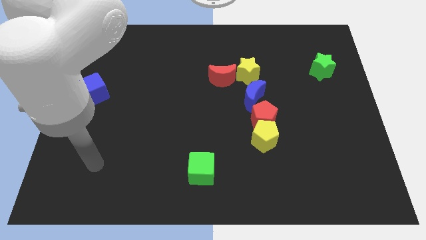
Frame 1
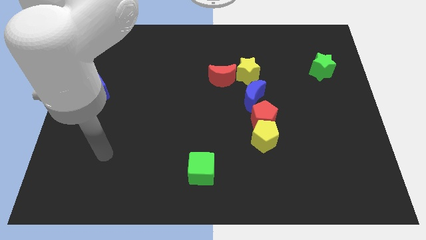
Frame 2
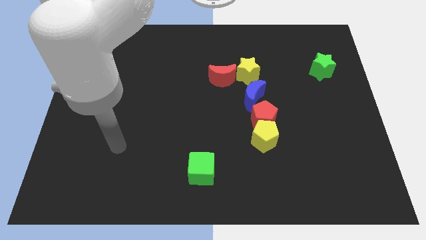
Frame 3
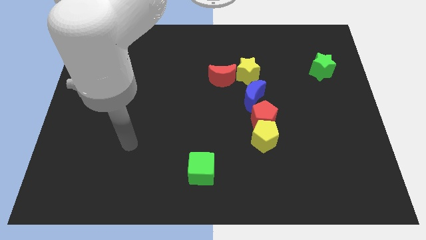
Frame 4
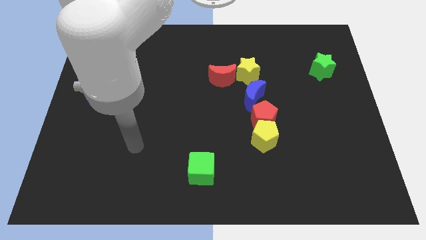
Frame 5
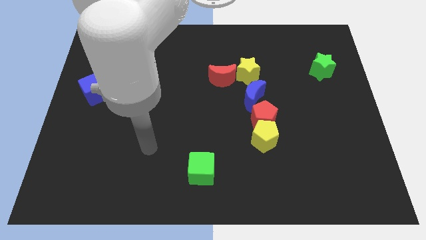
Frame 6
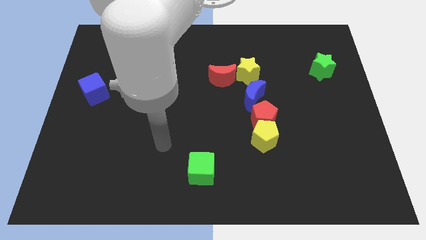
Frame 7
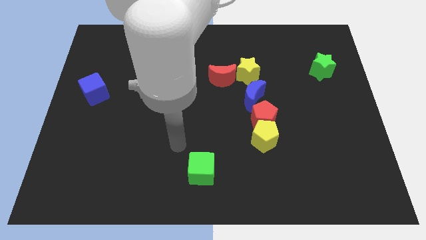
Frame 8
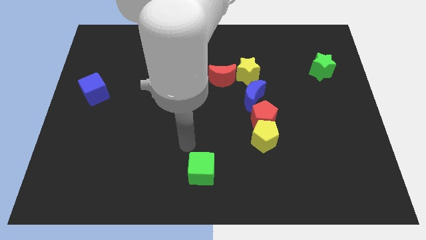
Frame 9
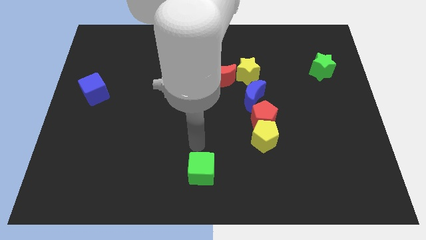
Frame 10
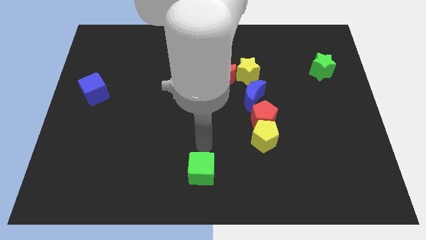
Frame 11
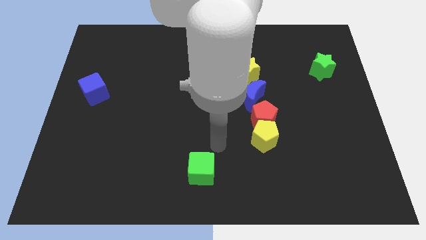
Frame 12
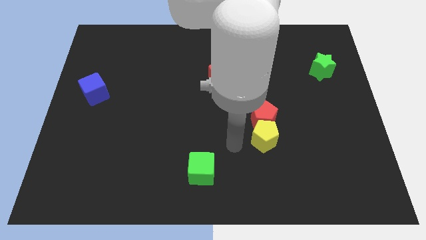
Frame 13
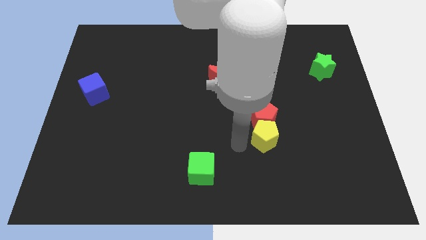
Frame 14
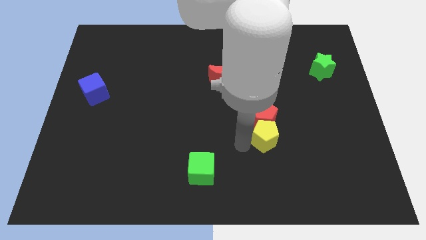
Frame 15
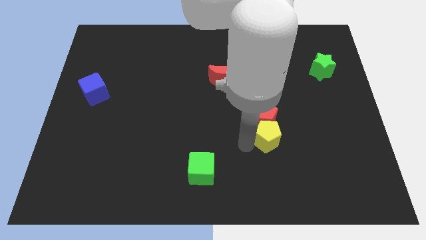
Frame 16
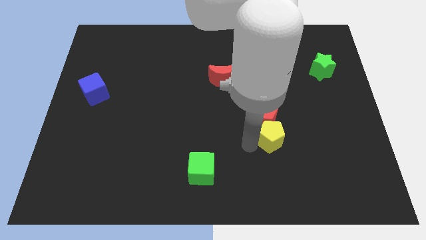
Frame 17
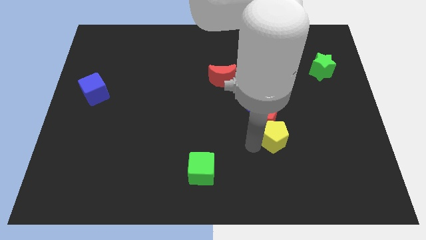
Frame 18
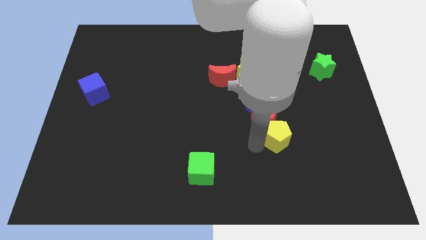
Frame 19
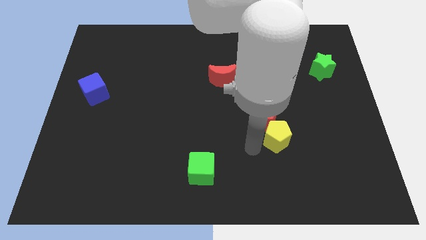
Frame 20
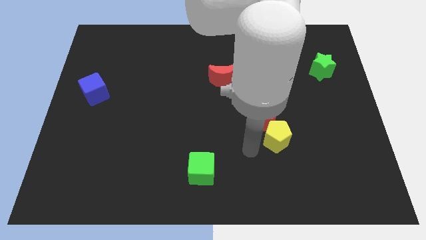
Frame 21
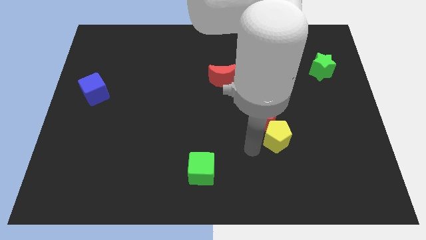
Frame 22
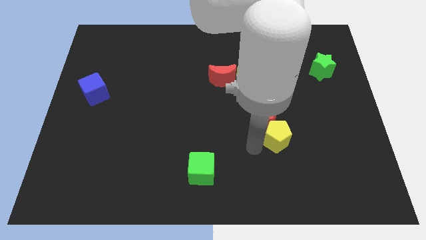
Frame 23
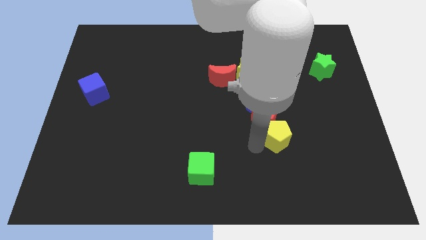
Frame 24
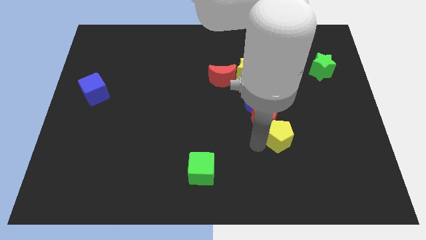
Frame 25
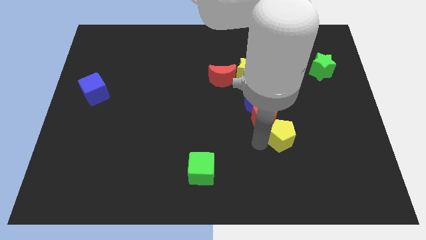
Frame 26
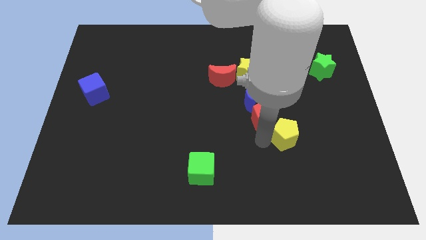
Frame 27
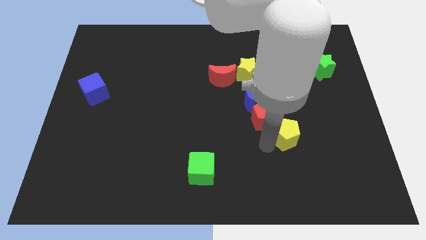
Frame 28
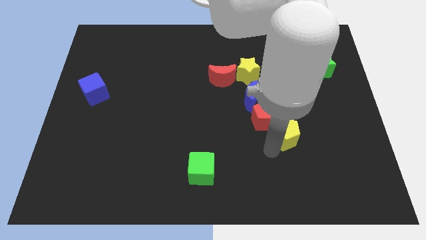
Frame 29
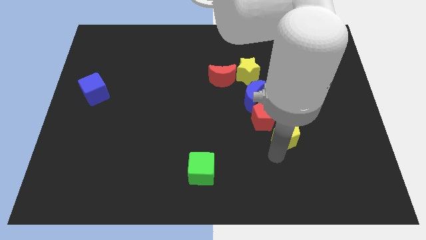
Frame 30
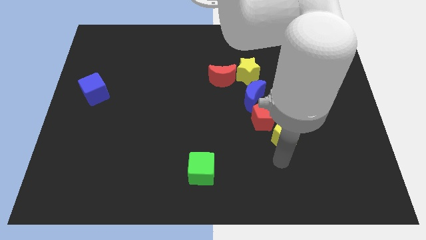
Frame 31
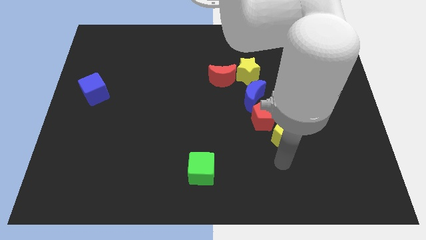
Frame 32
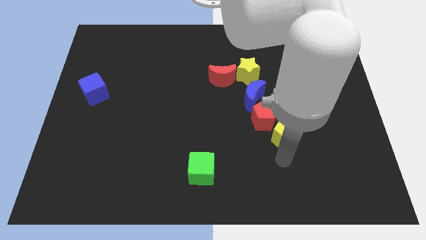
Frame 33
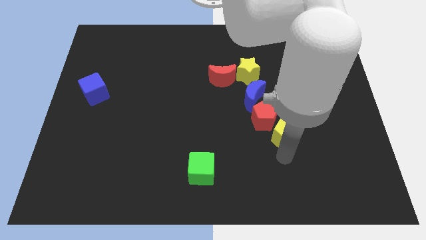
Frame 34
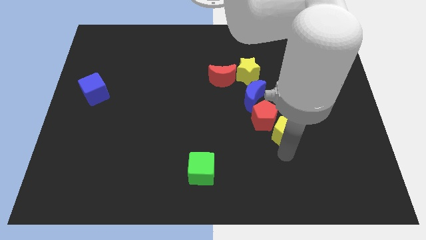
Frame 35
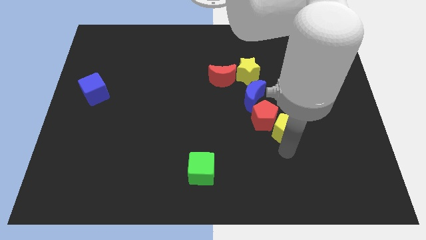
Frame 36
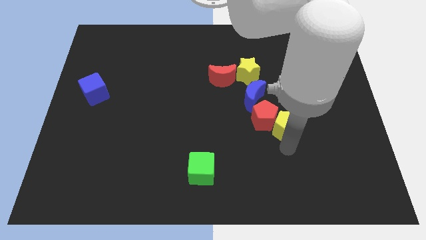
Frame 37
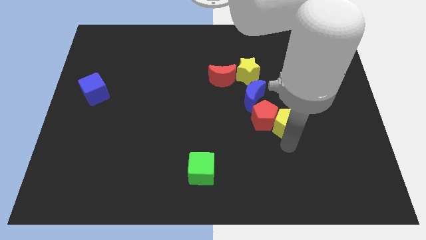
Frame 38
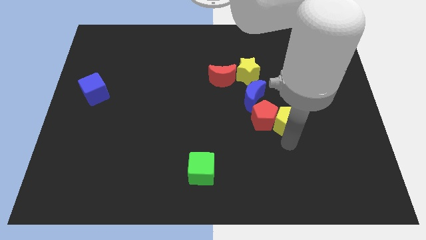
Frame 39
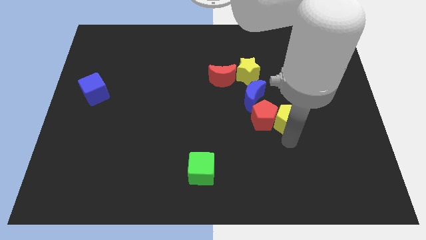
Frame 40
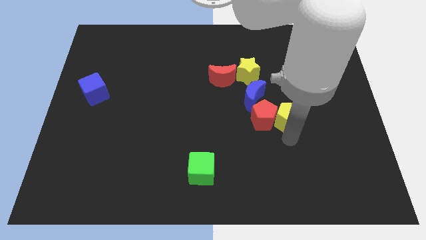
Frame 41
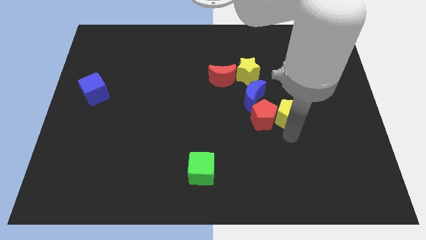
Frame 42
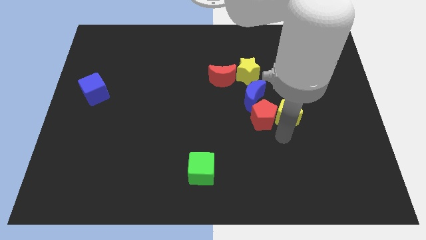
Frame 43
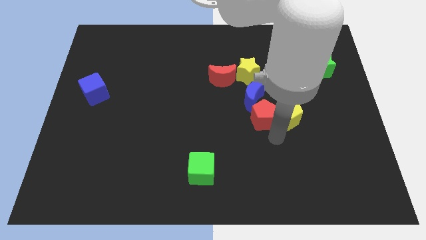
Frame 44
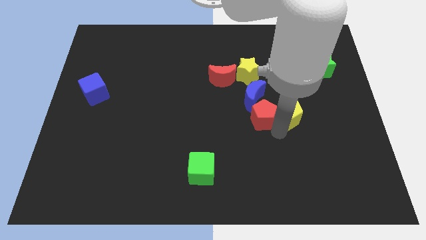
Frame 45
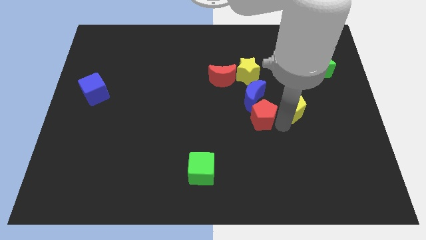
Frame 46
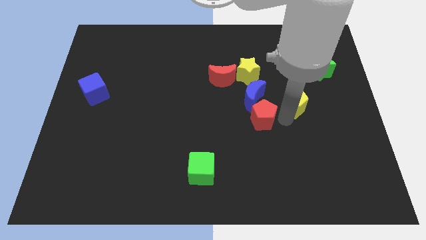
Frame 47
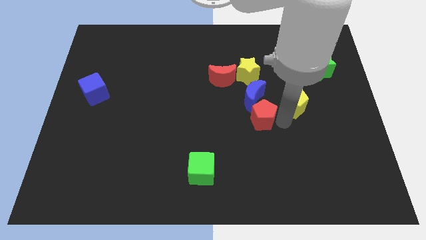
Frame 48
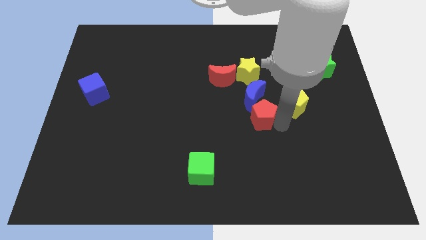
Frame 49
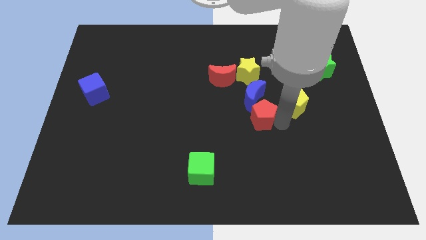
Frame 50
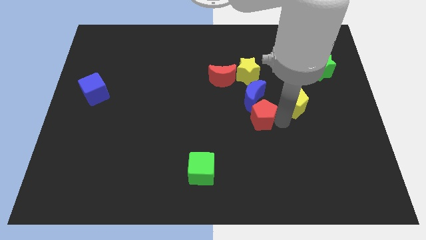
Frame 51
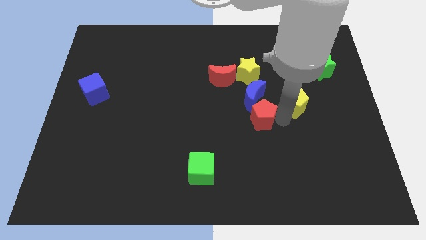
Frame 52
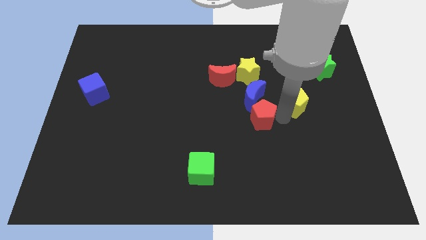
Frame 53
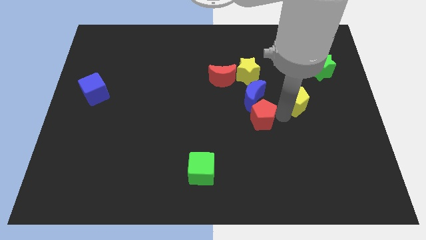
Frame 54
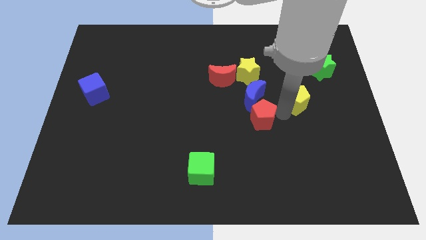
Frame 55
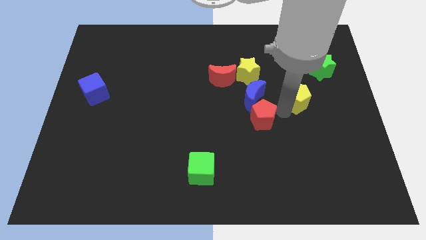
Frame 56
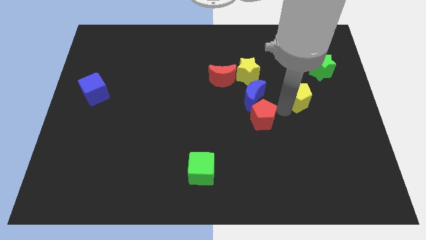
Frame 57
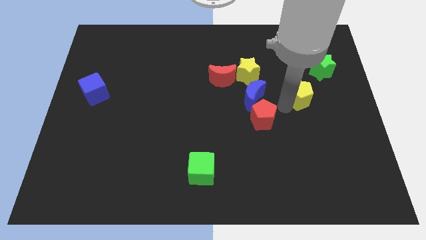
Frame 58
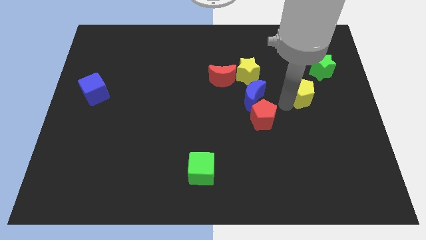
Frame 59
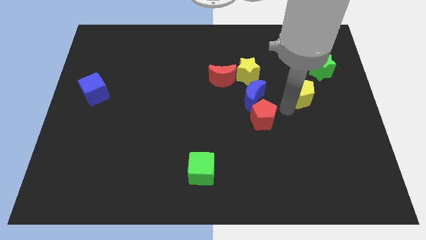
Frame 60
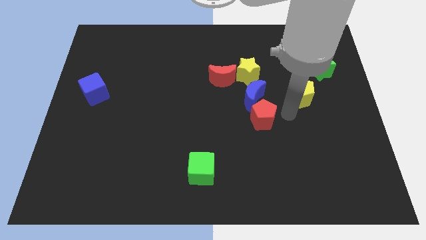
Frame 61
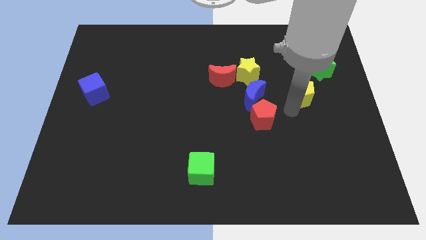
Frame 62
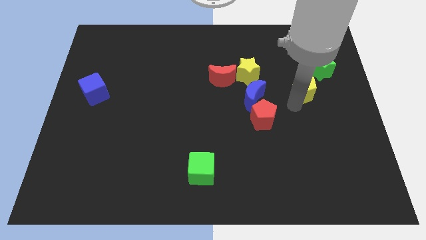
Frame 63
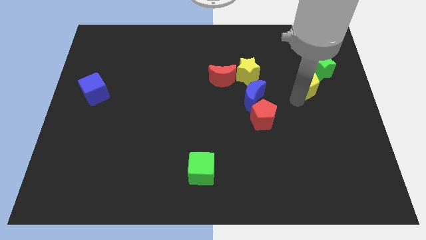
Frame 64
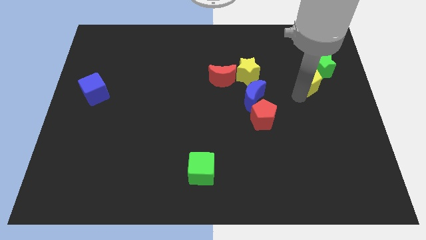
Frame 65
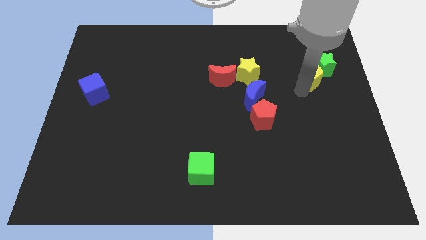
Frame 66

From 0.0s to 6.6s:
slide the yellow pentagon next to the green star

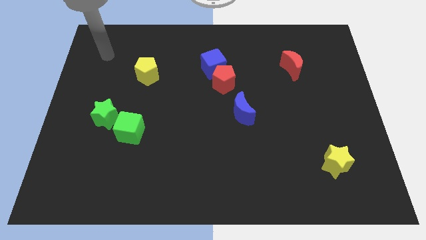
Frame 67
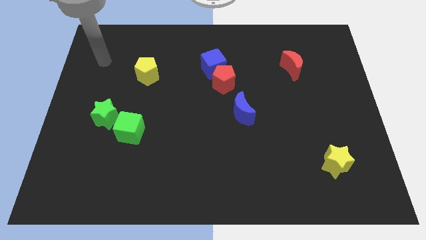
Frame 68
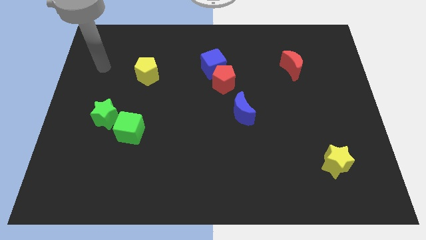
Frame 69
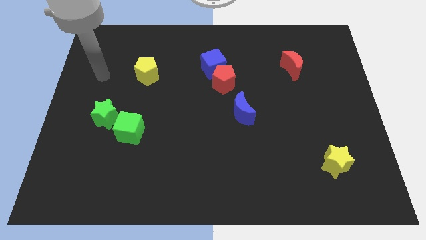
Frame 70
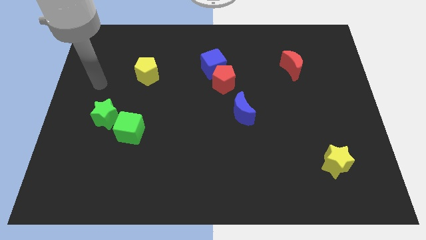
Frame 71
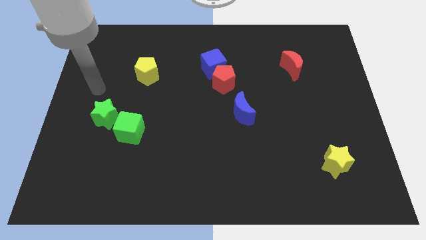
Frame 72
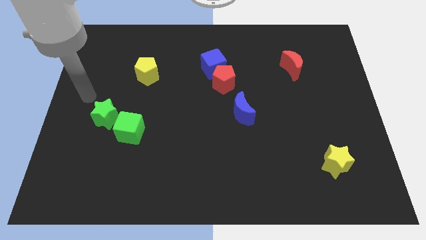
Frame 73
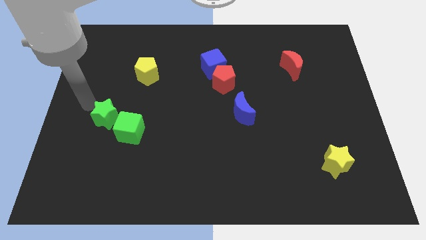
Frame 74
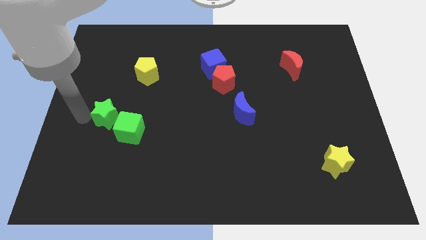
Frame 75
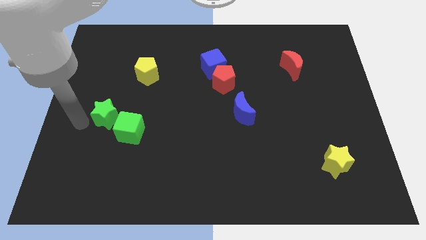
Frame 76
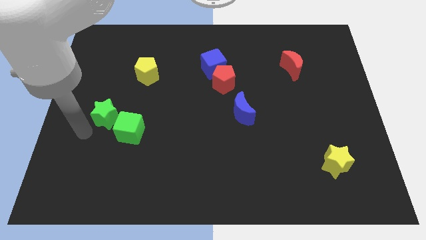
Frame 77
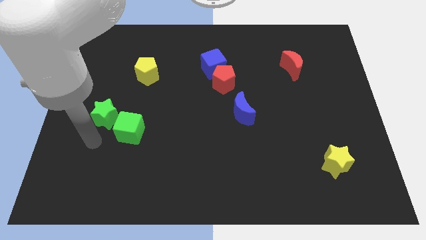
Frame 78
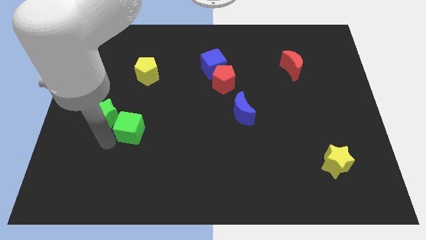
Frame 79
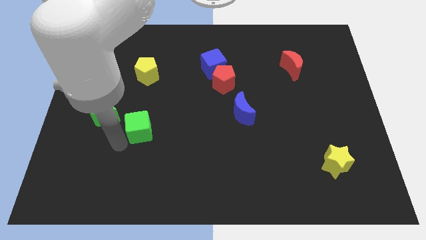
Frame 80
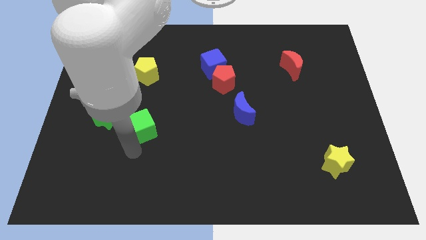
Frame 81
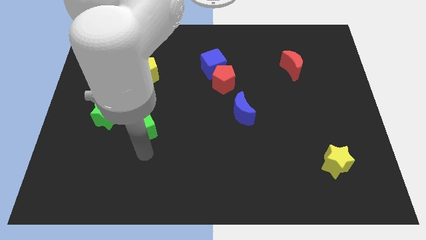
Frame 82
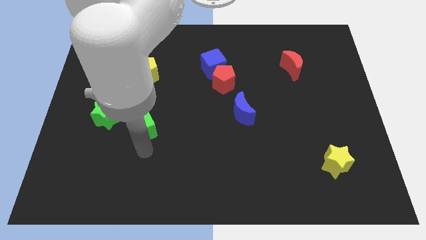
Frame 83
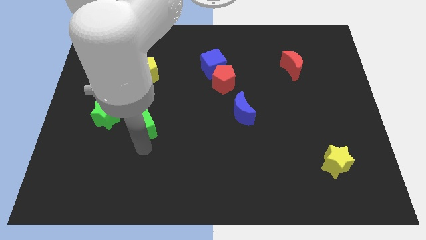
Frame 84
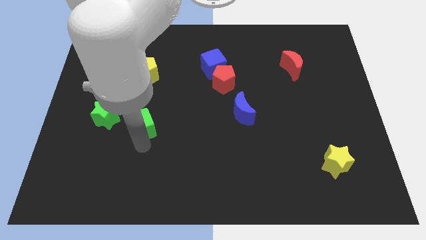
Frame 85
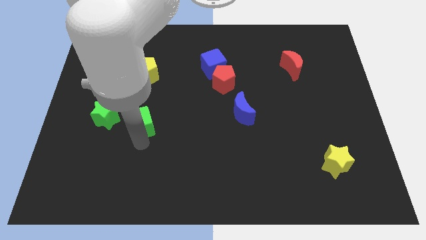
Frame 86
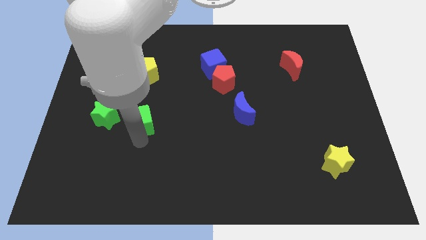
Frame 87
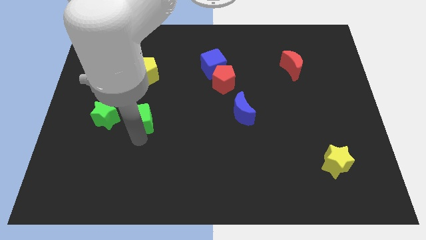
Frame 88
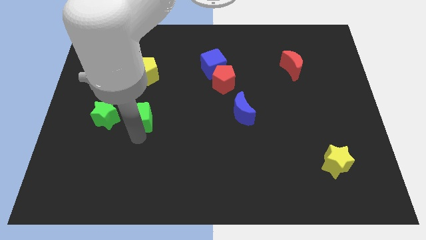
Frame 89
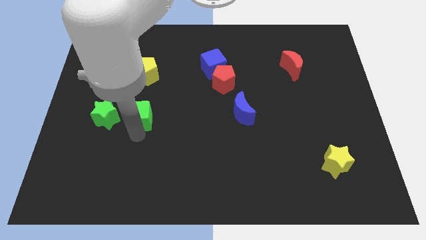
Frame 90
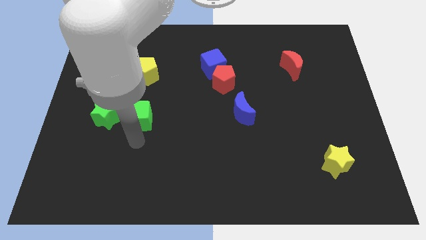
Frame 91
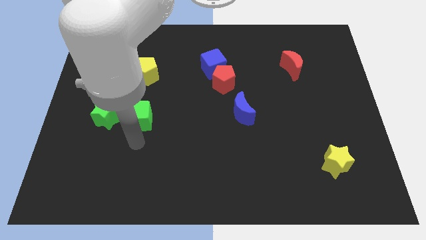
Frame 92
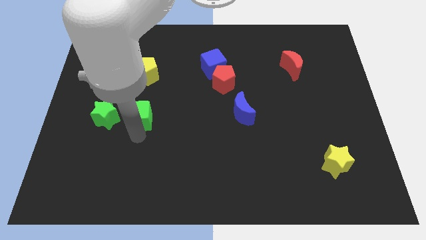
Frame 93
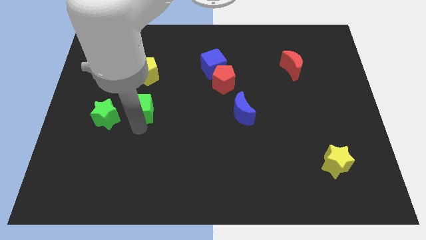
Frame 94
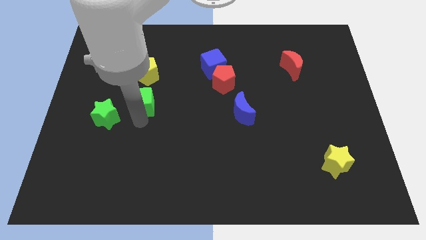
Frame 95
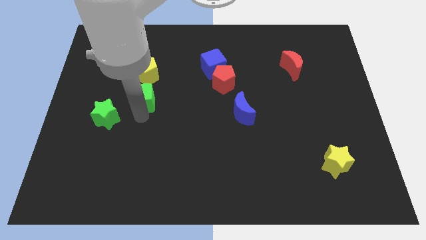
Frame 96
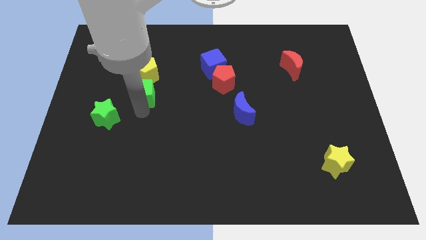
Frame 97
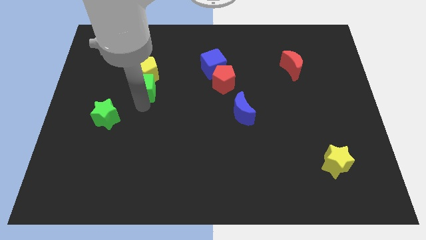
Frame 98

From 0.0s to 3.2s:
move the green cube next to the yellow pentagon
